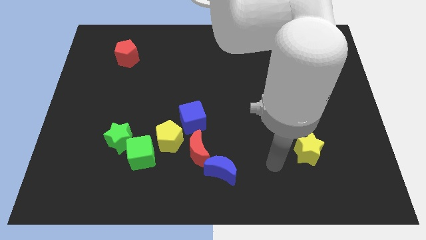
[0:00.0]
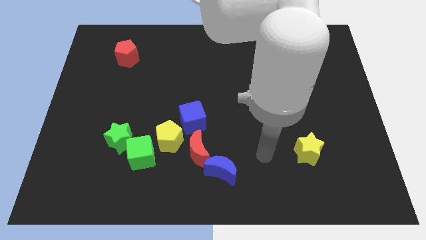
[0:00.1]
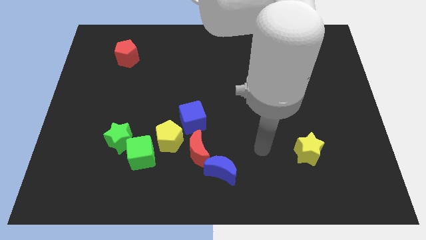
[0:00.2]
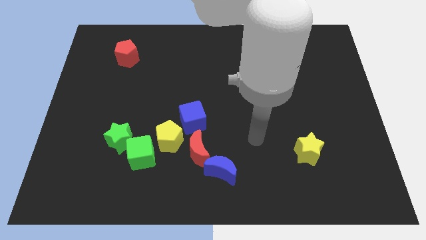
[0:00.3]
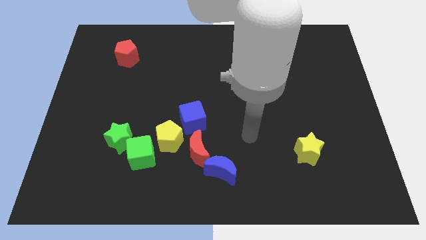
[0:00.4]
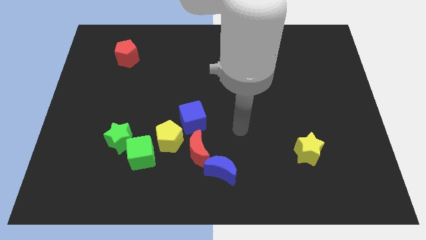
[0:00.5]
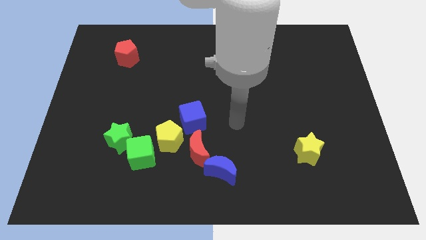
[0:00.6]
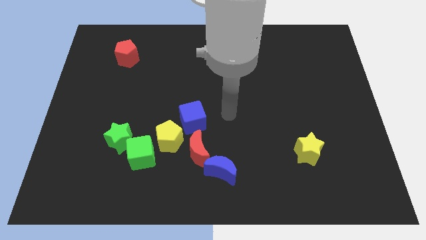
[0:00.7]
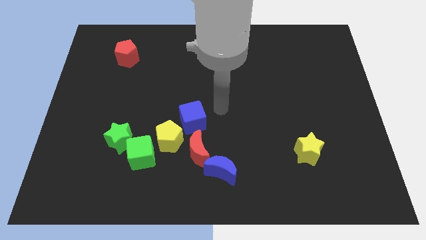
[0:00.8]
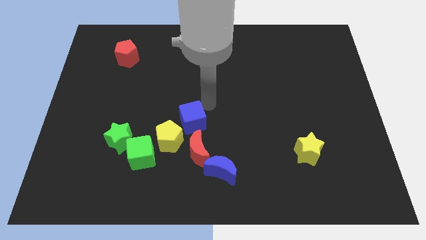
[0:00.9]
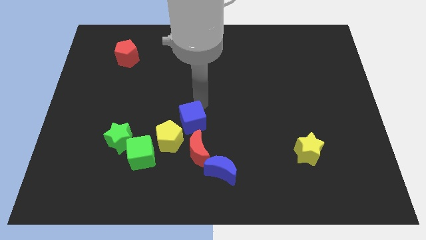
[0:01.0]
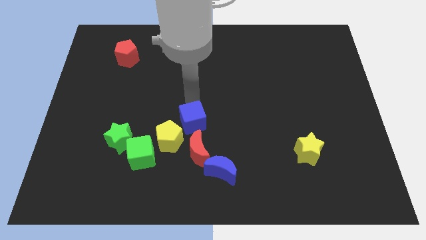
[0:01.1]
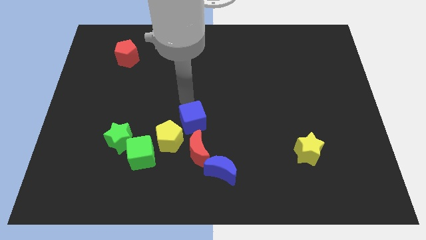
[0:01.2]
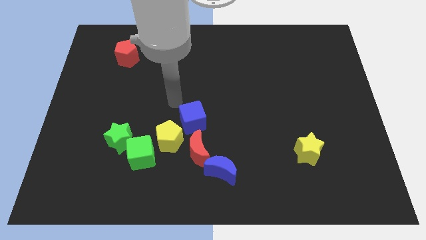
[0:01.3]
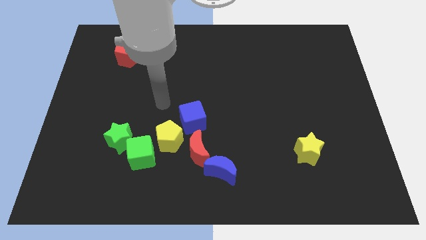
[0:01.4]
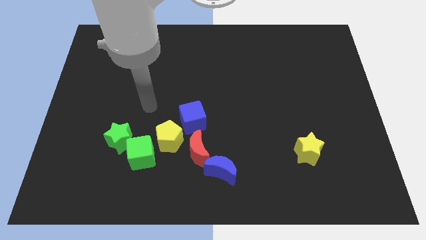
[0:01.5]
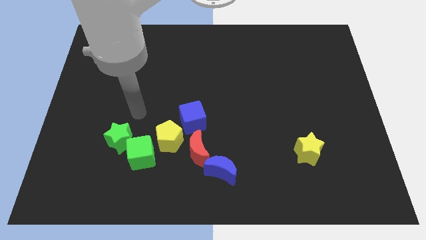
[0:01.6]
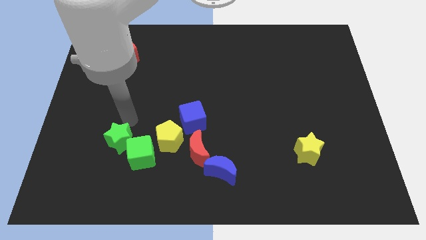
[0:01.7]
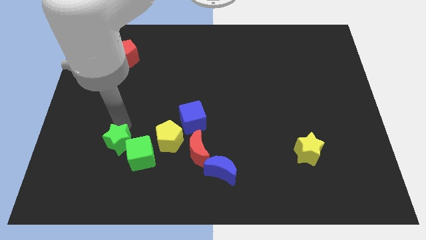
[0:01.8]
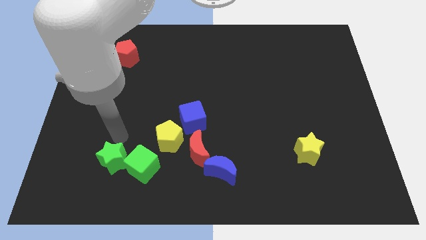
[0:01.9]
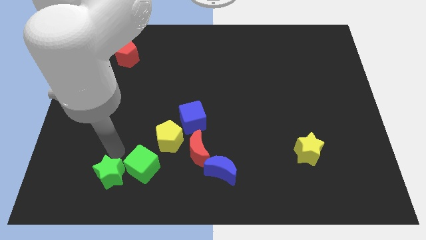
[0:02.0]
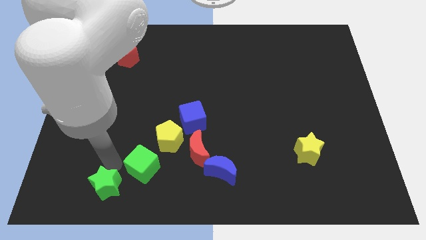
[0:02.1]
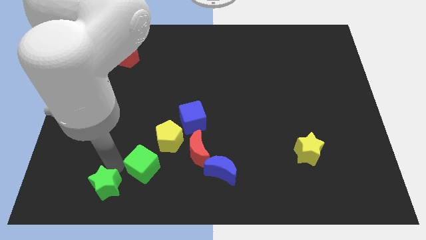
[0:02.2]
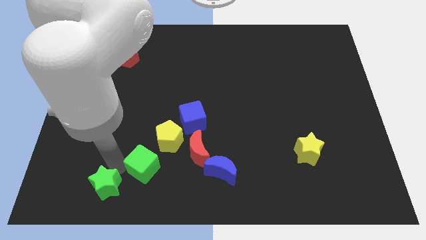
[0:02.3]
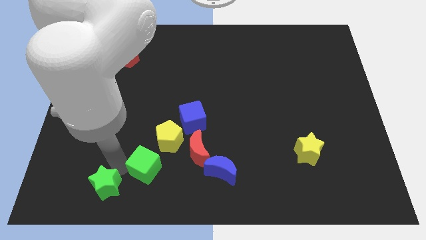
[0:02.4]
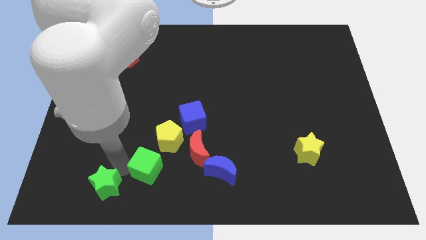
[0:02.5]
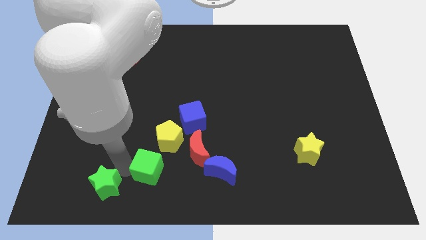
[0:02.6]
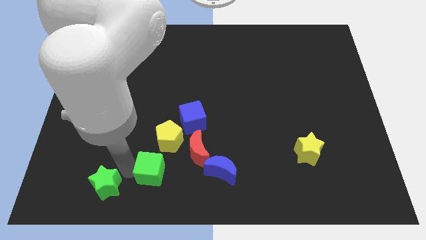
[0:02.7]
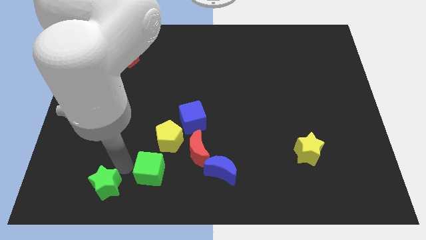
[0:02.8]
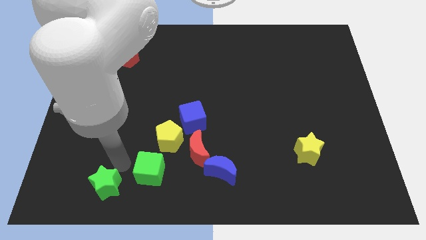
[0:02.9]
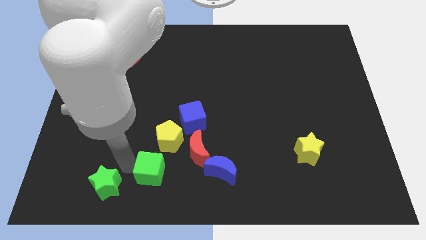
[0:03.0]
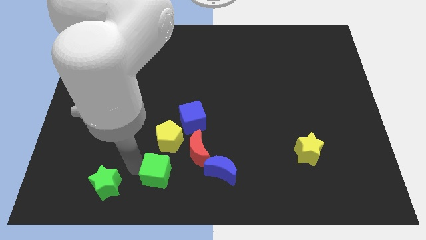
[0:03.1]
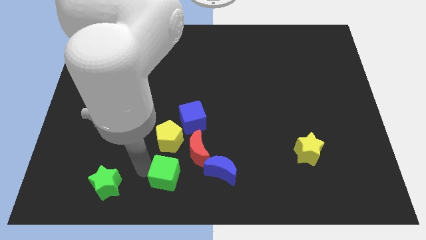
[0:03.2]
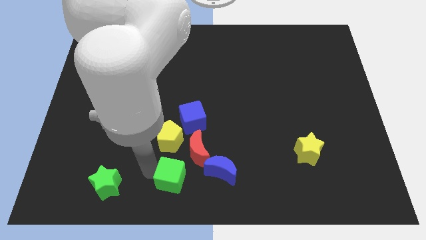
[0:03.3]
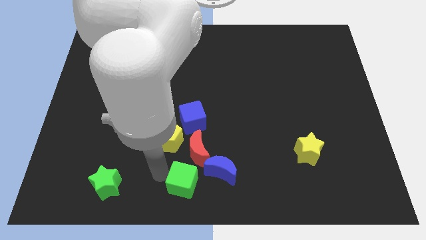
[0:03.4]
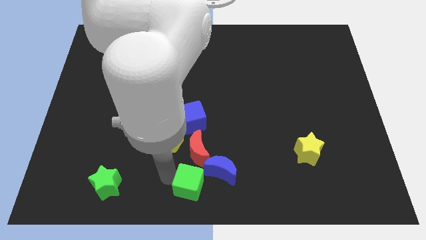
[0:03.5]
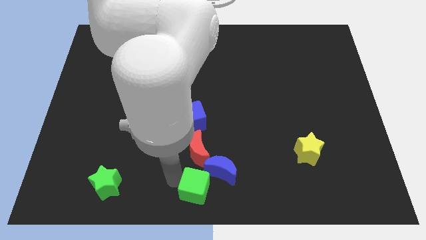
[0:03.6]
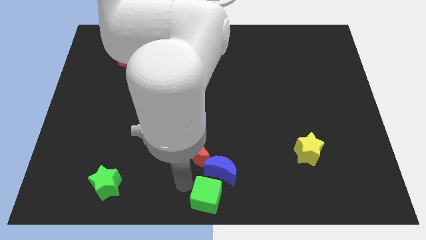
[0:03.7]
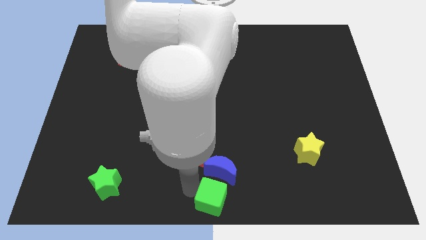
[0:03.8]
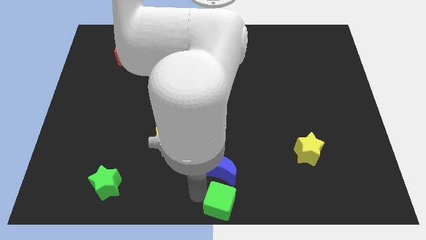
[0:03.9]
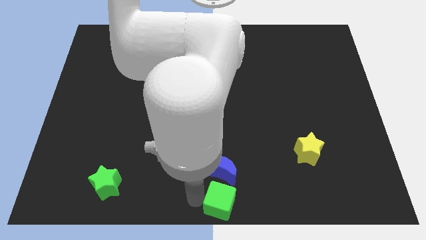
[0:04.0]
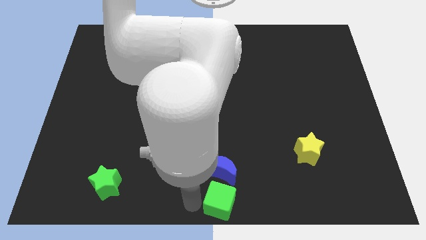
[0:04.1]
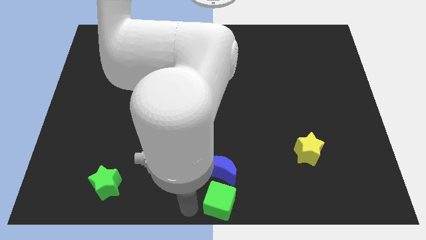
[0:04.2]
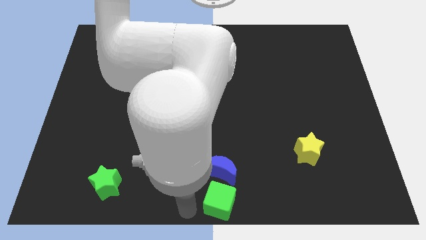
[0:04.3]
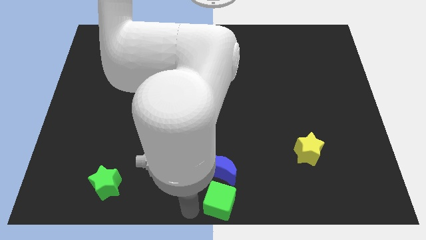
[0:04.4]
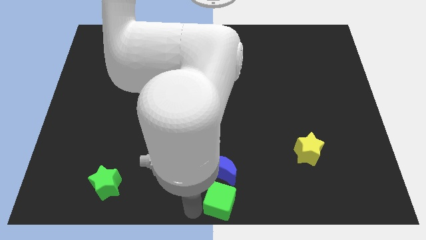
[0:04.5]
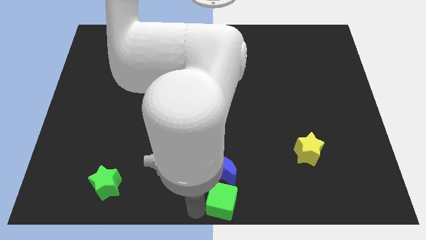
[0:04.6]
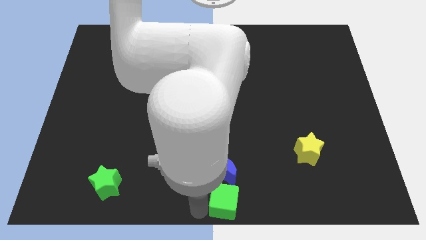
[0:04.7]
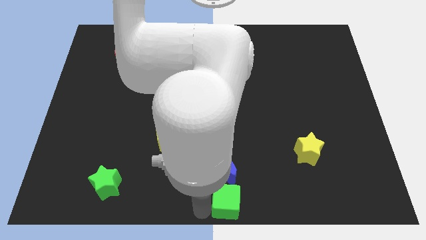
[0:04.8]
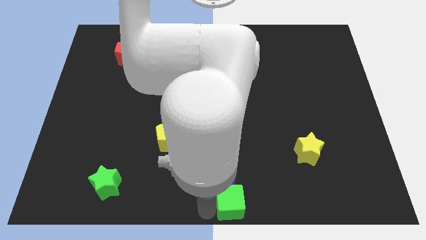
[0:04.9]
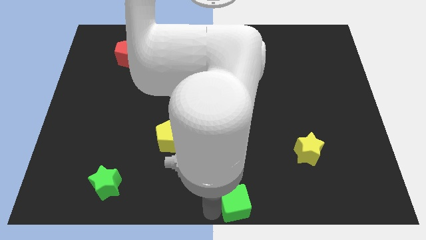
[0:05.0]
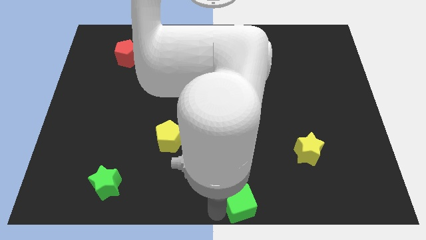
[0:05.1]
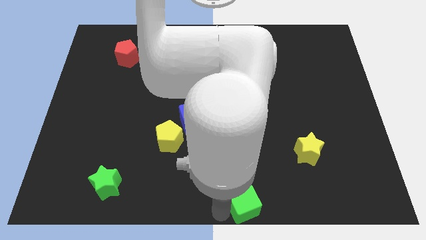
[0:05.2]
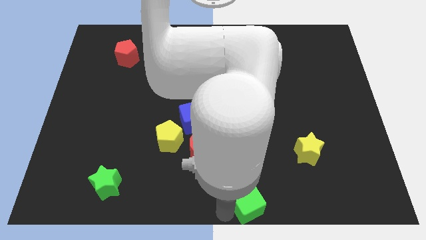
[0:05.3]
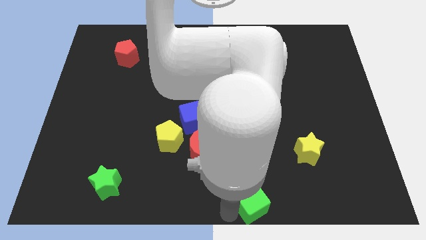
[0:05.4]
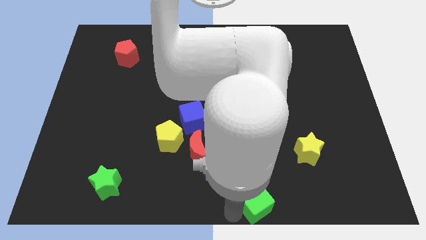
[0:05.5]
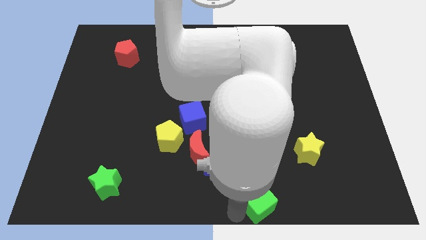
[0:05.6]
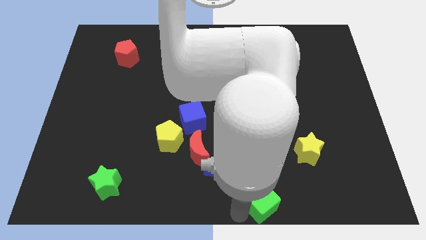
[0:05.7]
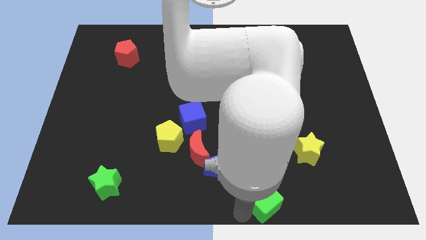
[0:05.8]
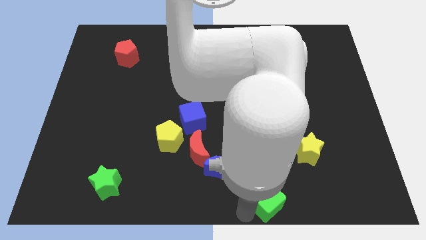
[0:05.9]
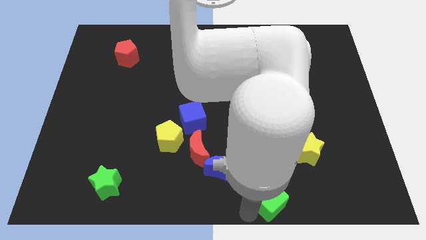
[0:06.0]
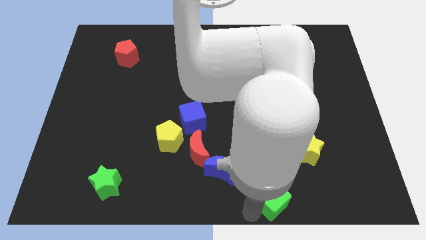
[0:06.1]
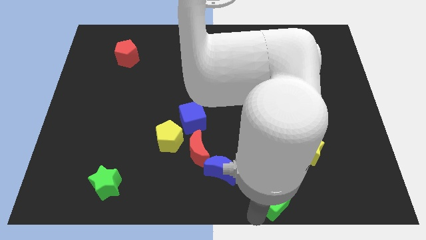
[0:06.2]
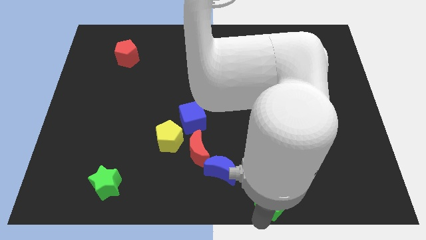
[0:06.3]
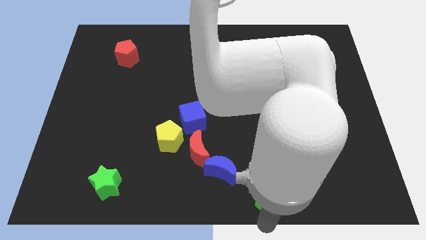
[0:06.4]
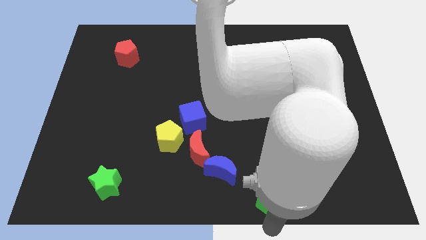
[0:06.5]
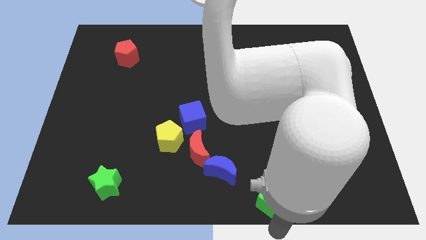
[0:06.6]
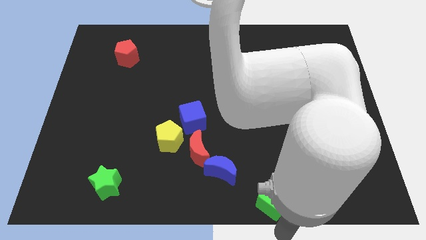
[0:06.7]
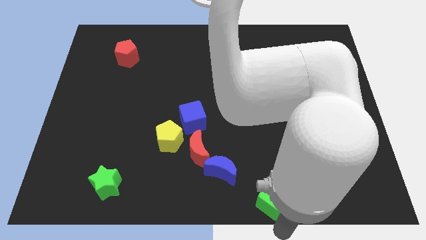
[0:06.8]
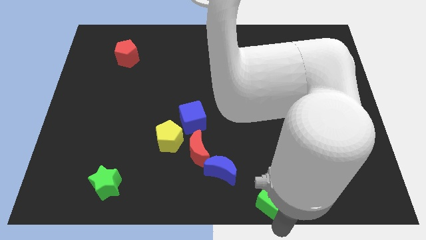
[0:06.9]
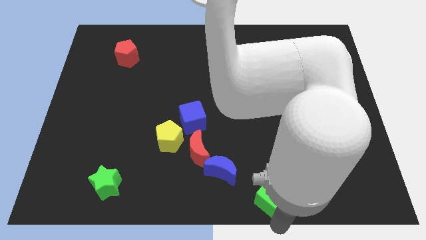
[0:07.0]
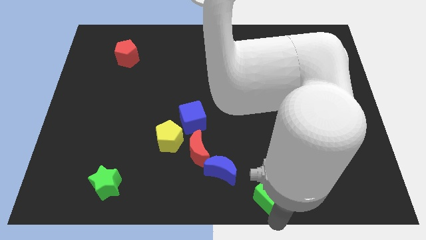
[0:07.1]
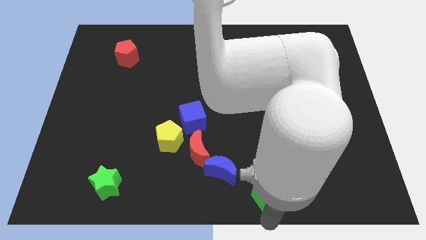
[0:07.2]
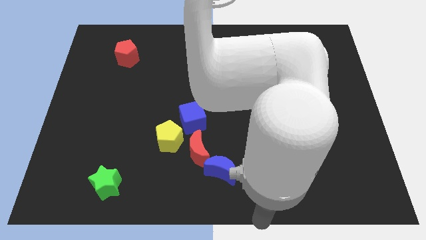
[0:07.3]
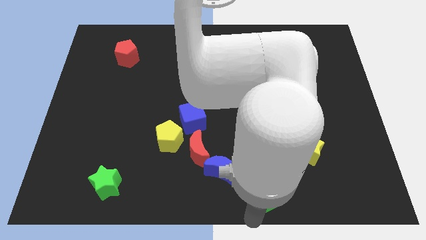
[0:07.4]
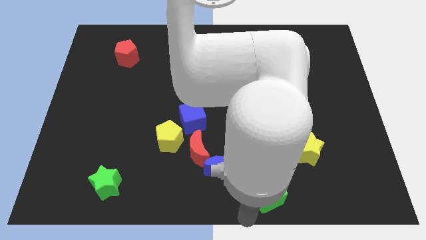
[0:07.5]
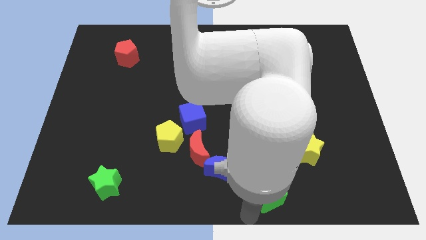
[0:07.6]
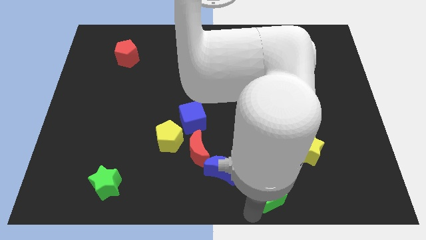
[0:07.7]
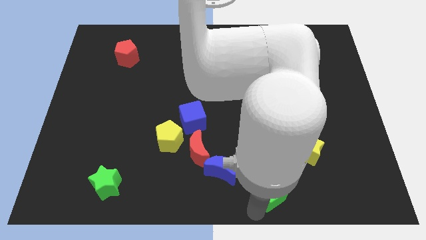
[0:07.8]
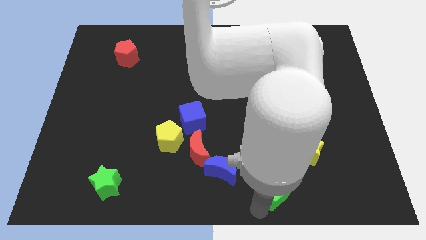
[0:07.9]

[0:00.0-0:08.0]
slide the green cube to the bottom left of the yellow star
